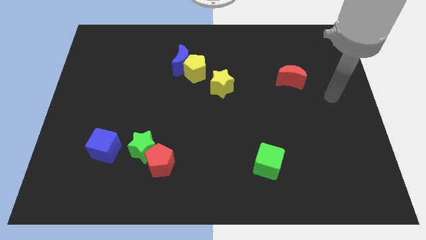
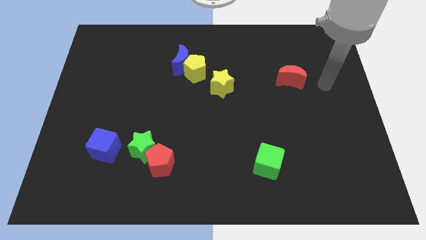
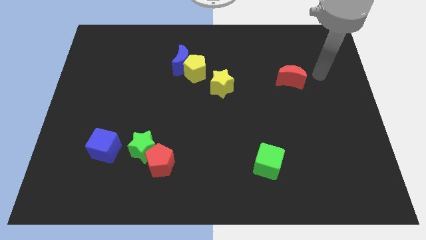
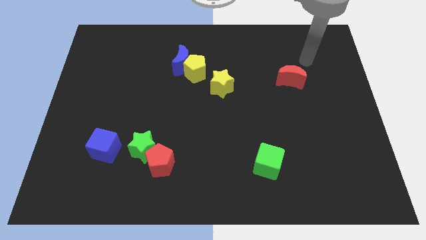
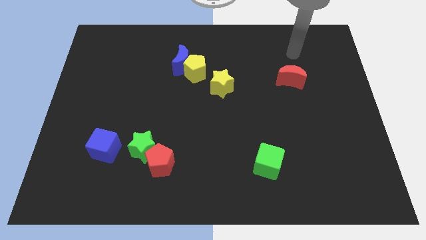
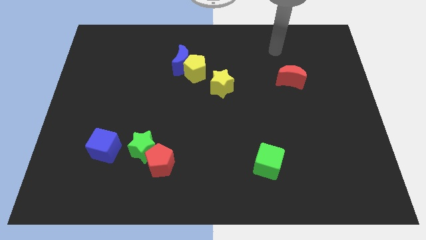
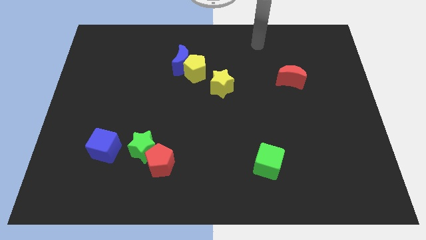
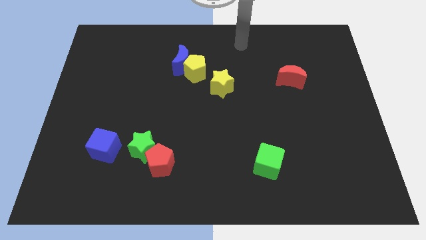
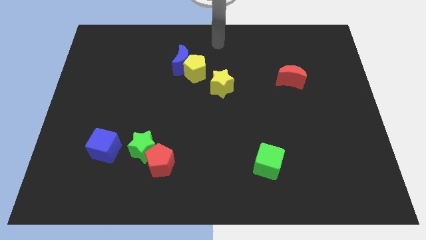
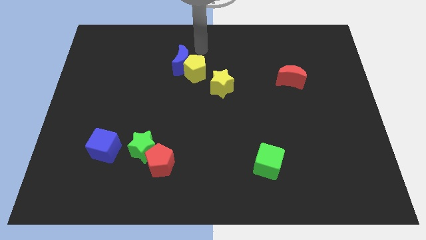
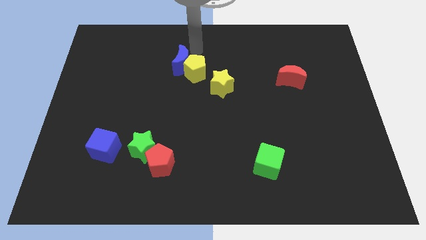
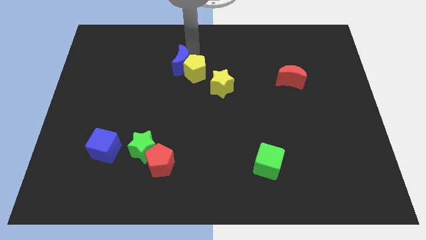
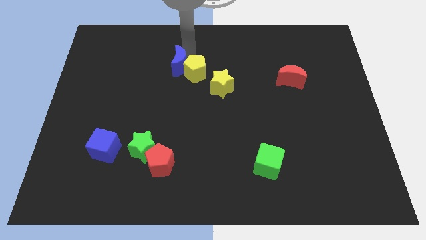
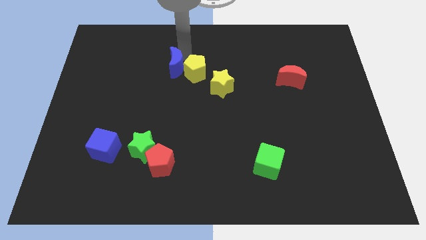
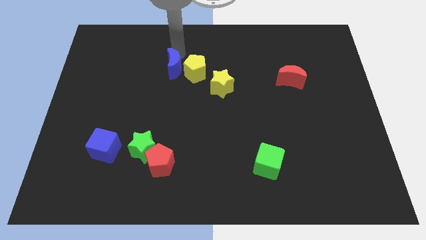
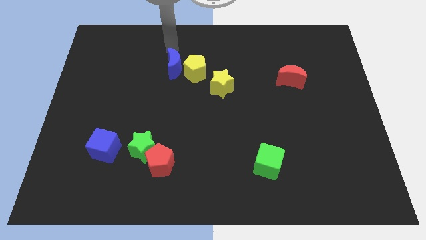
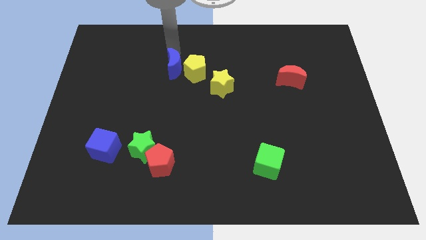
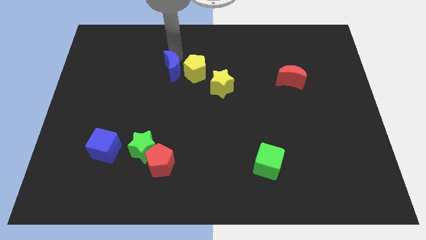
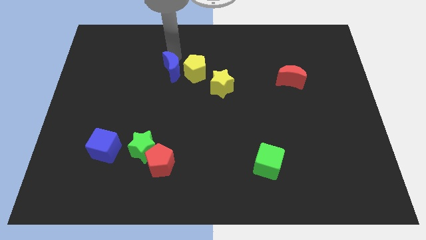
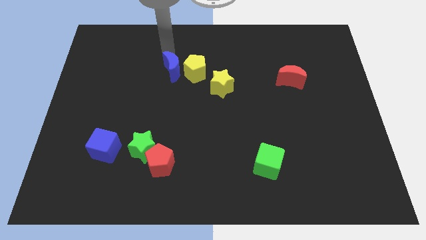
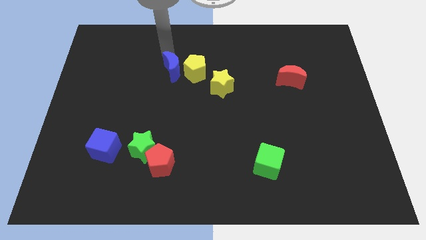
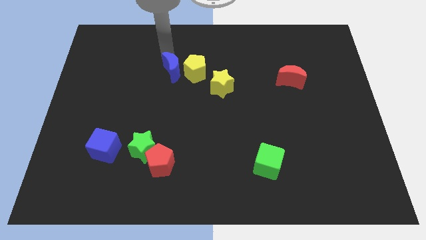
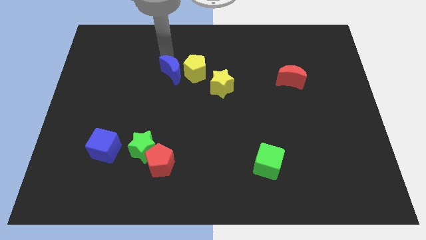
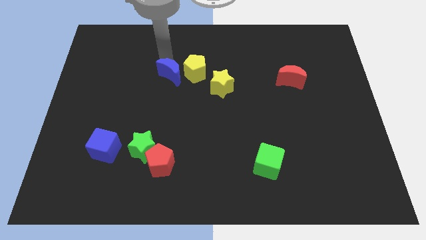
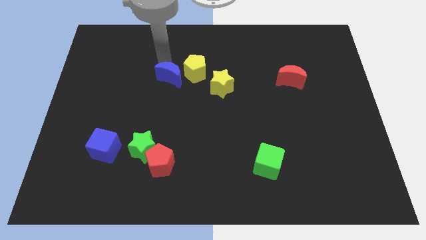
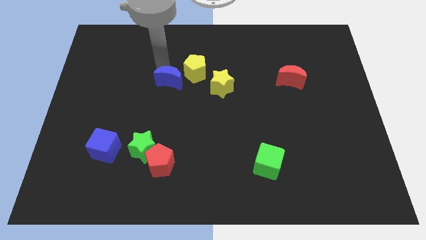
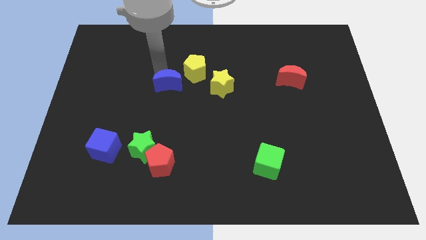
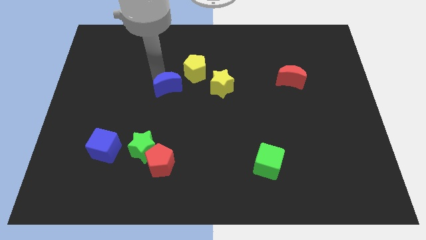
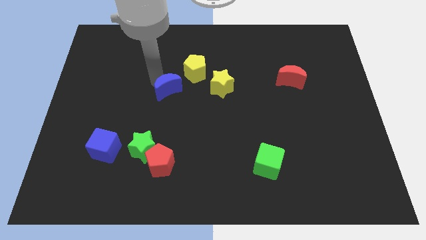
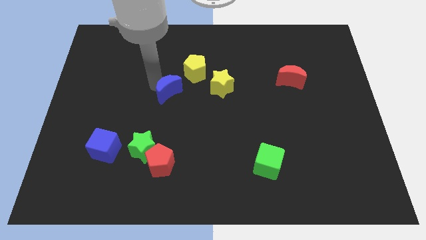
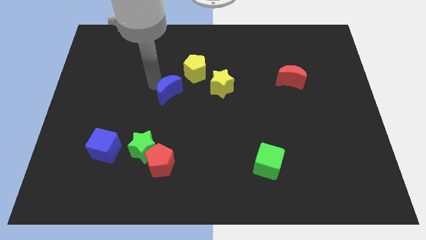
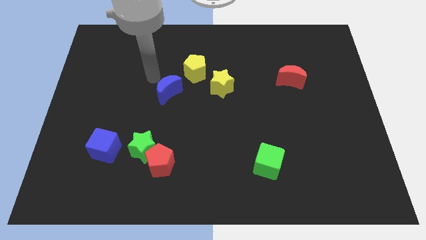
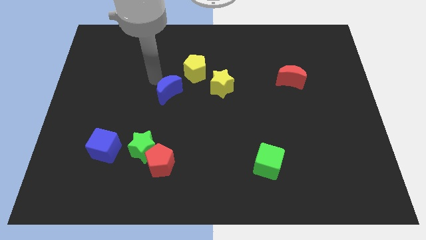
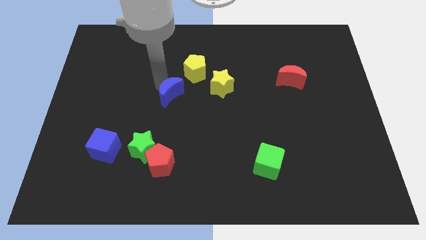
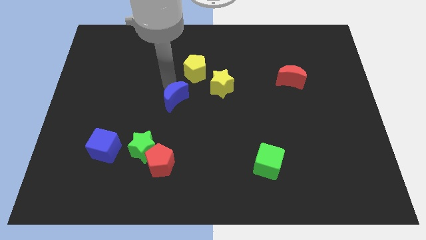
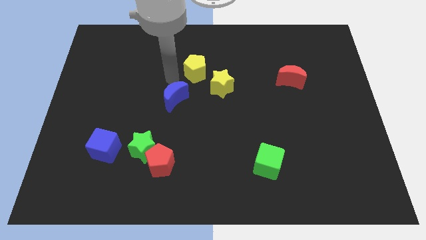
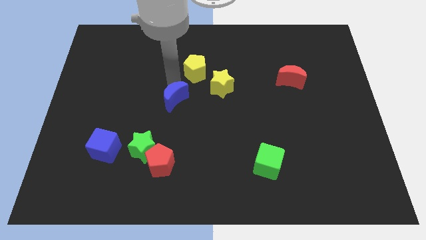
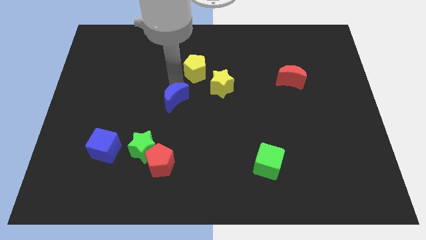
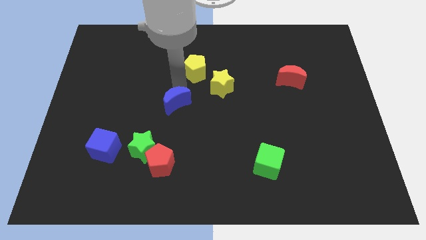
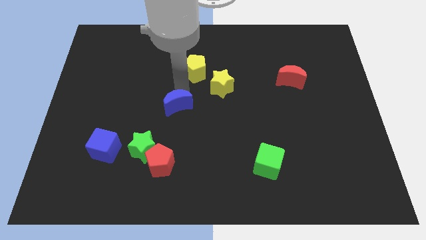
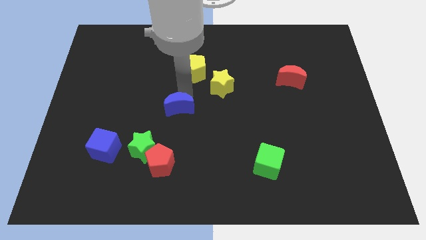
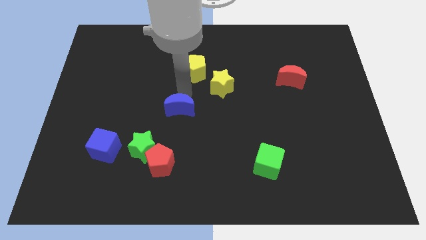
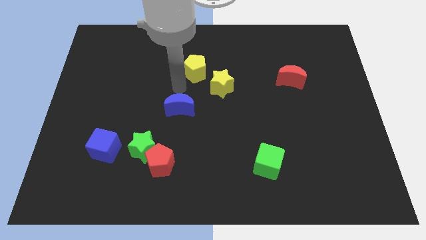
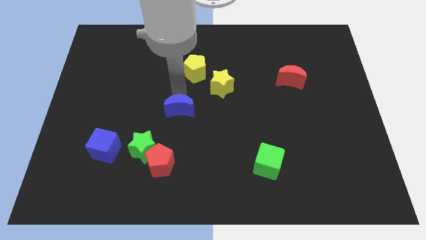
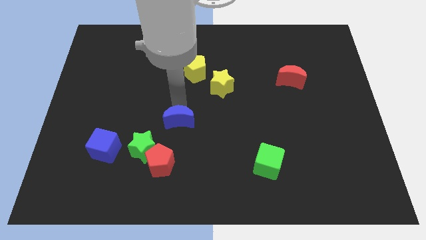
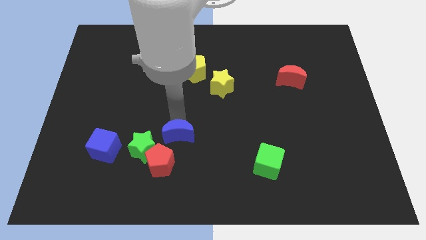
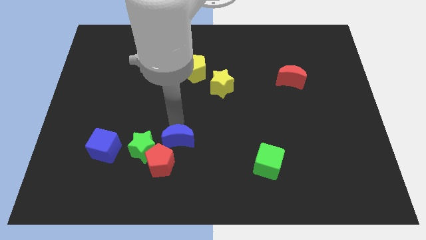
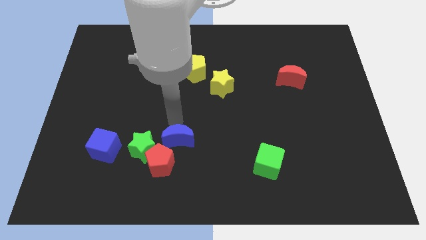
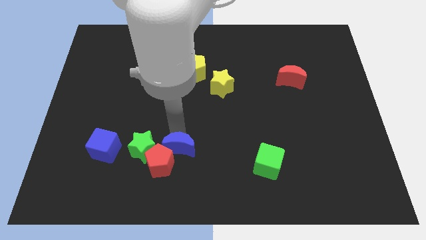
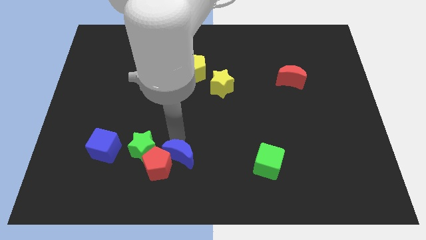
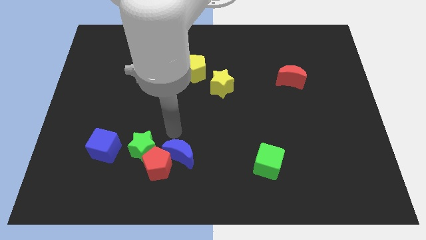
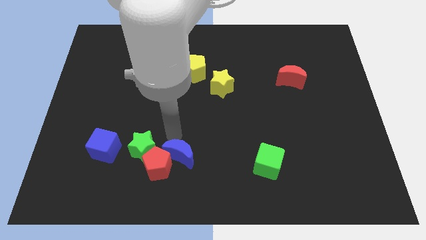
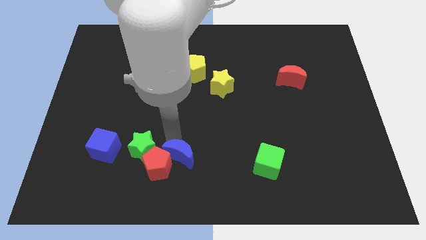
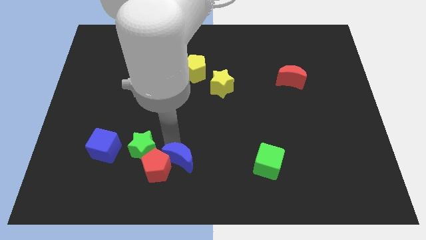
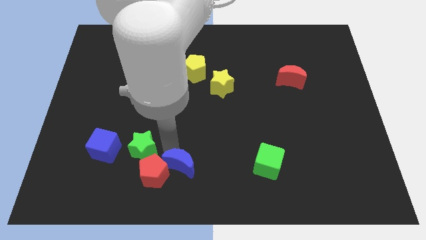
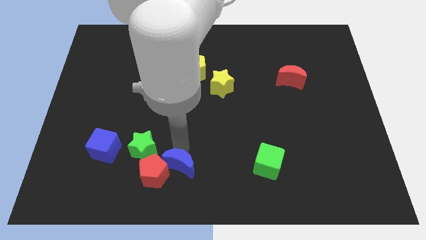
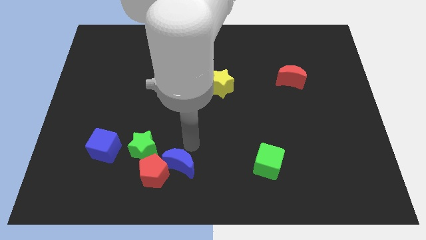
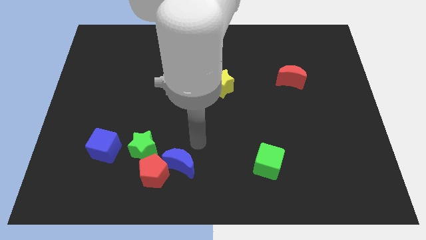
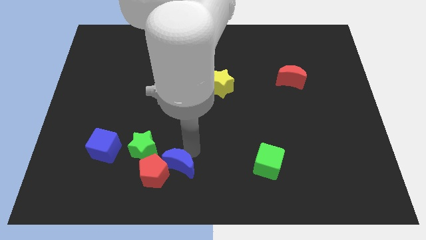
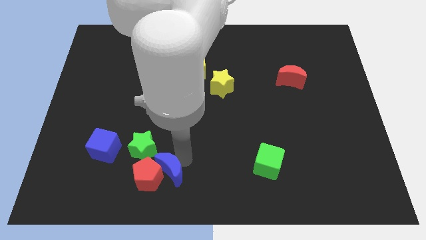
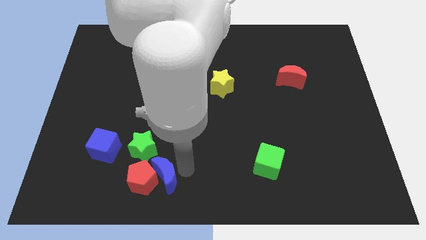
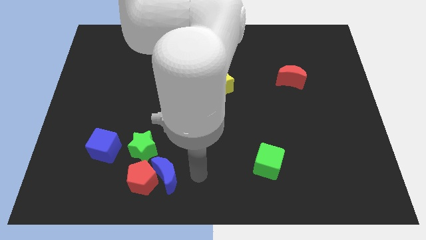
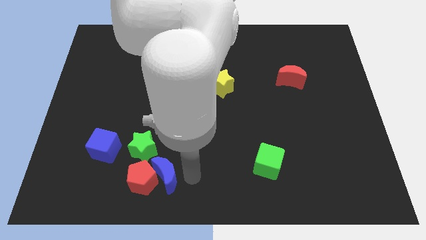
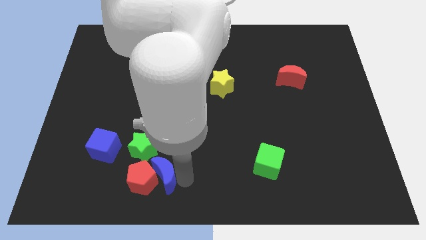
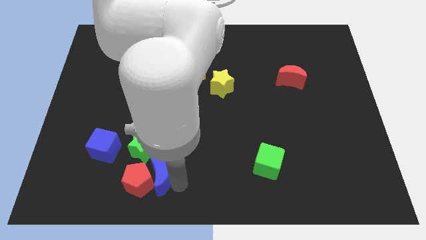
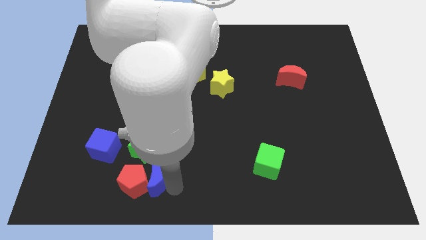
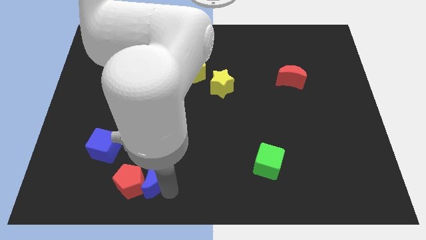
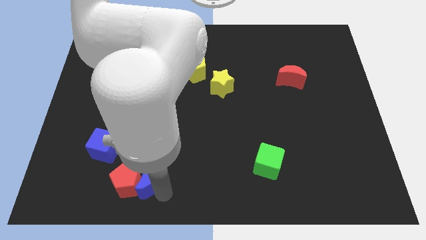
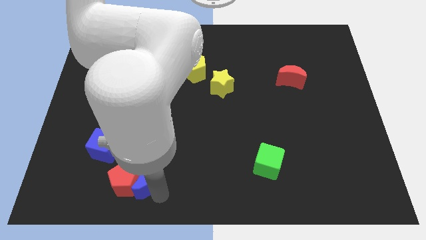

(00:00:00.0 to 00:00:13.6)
push the blue moon to the bottom right of the blue cube
